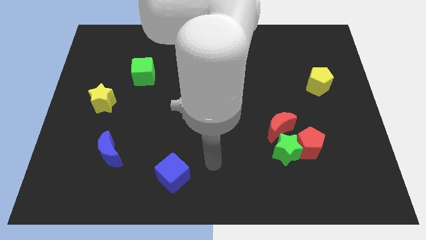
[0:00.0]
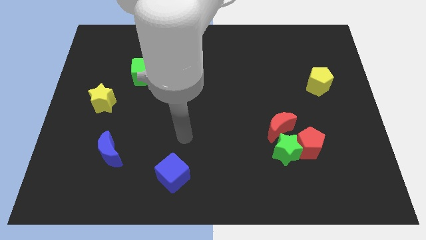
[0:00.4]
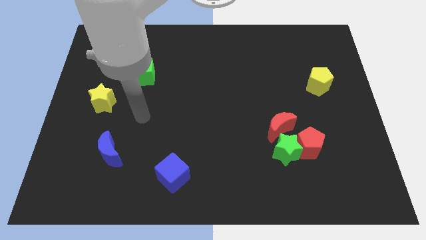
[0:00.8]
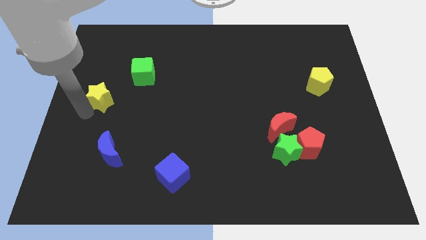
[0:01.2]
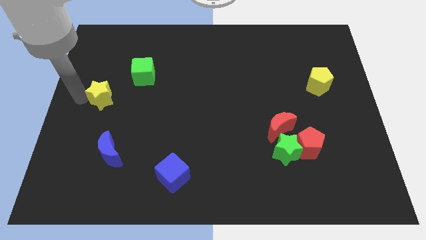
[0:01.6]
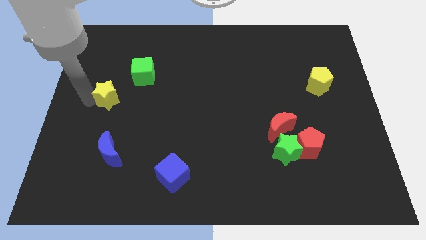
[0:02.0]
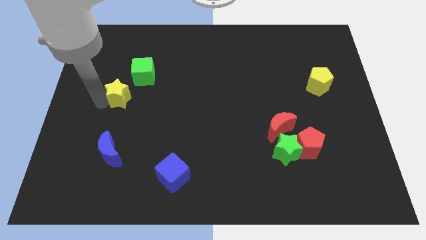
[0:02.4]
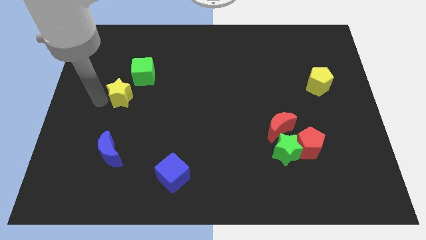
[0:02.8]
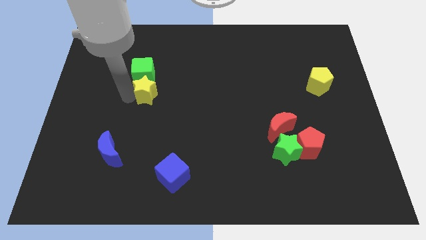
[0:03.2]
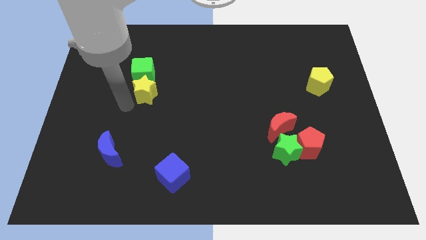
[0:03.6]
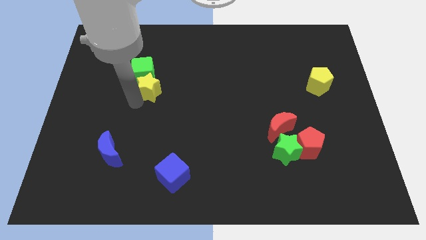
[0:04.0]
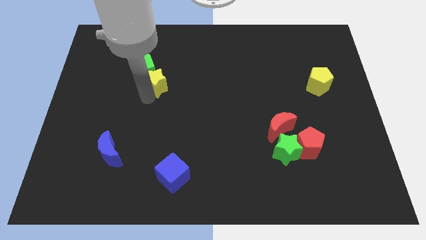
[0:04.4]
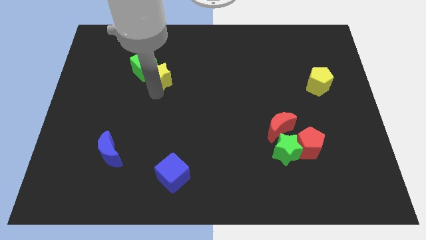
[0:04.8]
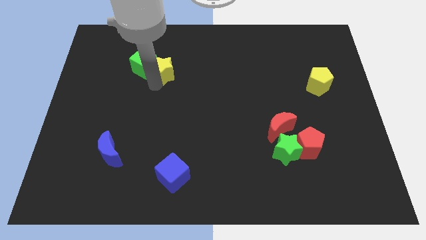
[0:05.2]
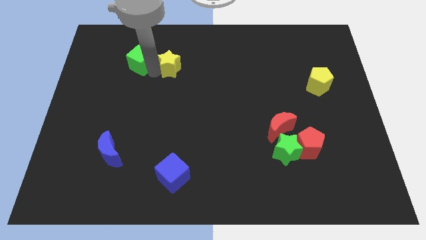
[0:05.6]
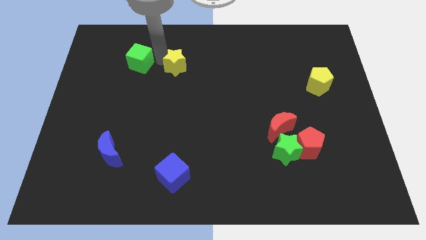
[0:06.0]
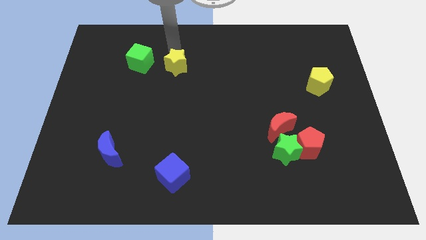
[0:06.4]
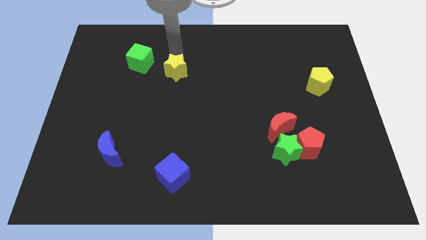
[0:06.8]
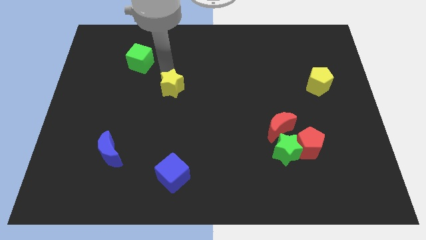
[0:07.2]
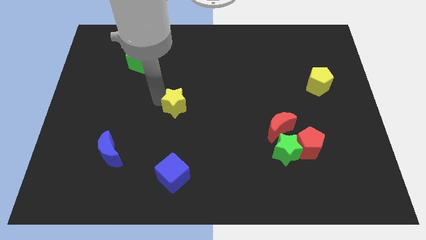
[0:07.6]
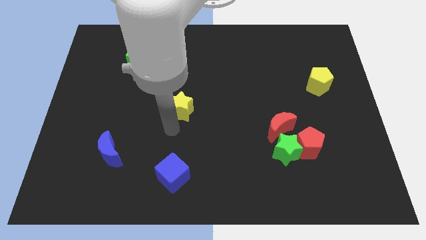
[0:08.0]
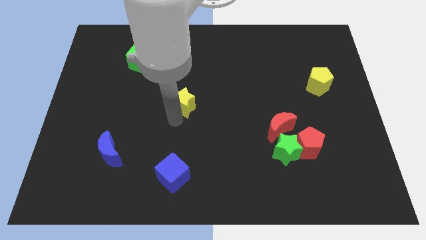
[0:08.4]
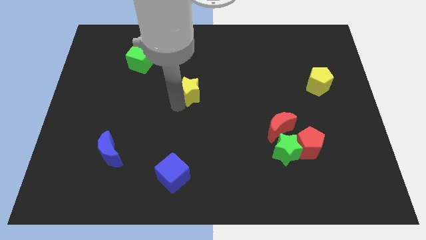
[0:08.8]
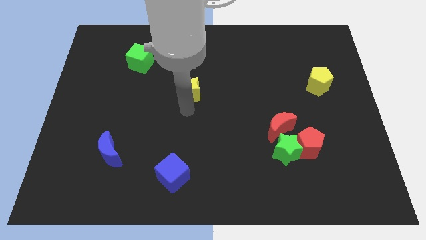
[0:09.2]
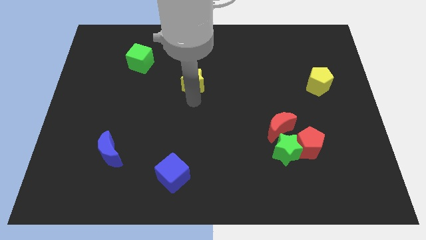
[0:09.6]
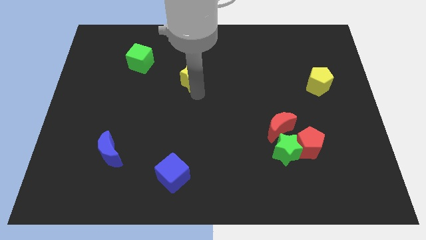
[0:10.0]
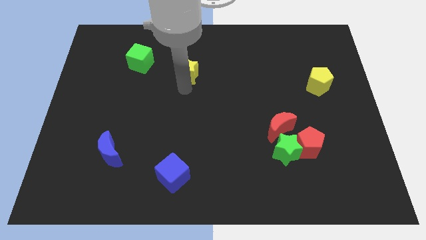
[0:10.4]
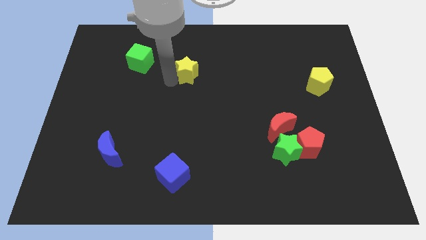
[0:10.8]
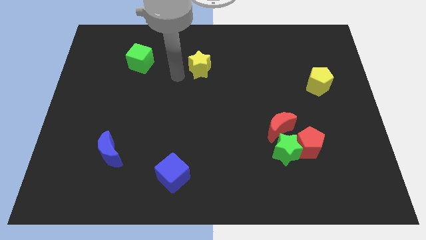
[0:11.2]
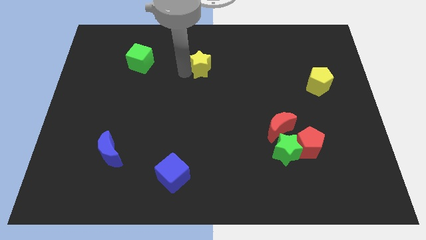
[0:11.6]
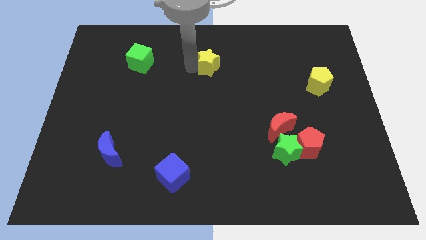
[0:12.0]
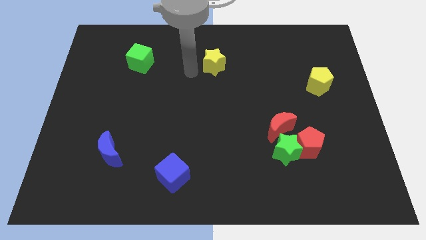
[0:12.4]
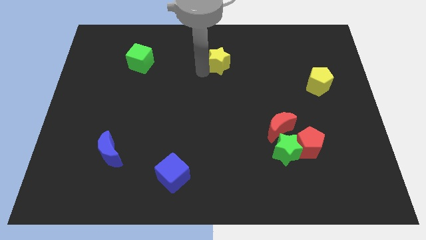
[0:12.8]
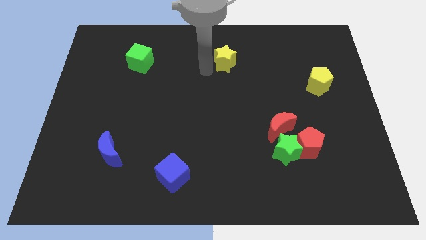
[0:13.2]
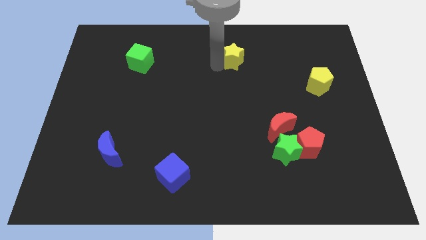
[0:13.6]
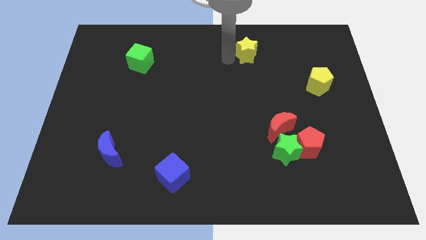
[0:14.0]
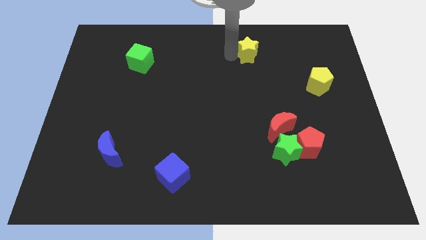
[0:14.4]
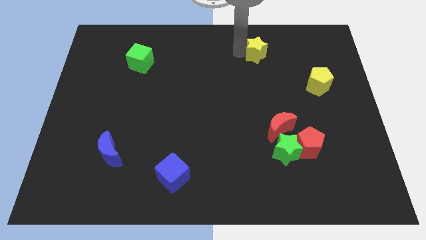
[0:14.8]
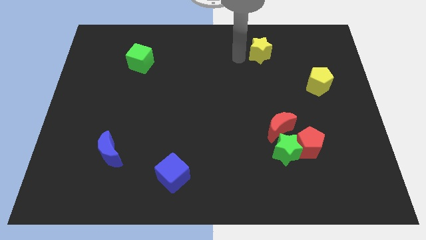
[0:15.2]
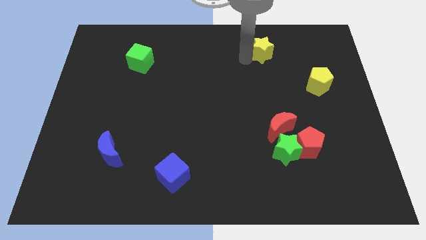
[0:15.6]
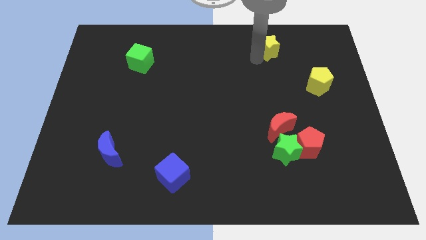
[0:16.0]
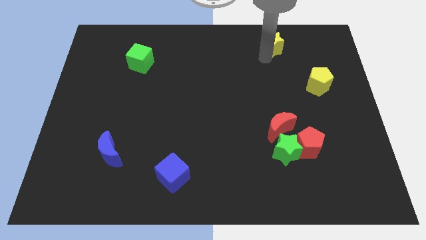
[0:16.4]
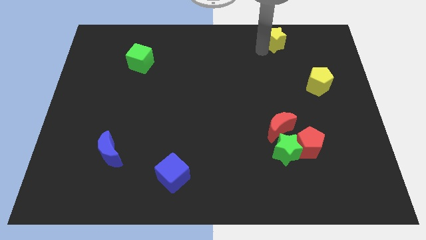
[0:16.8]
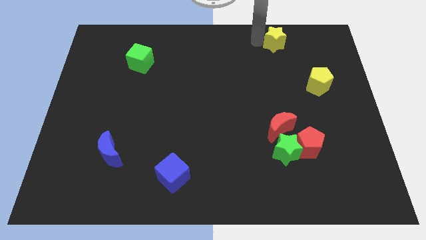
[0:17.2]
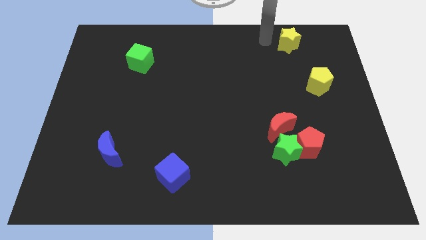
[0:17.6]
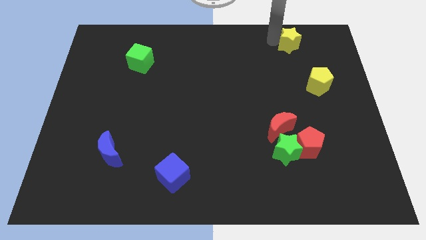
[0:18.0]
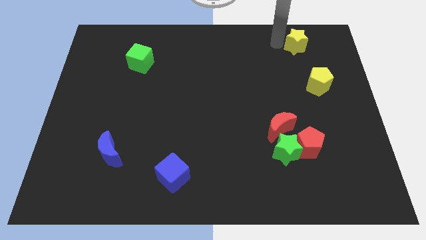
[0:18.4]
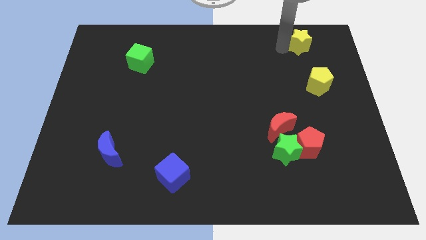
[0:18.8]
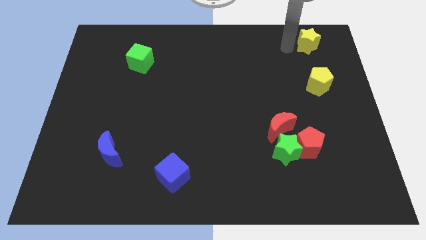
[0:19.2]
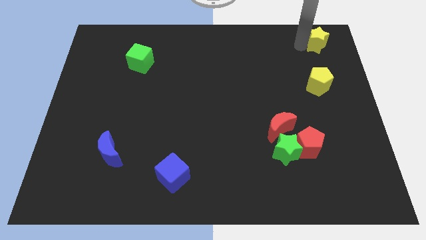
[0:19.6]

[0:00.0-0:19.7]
push the yellow star to the top right

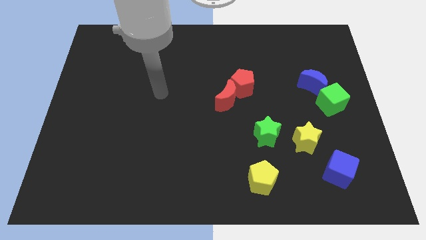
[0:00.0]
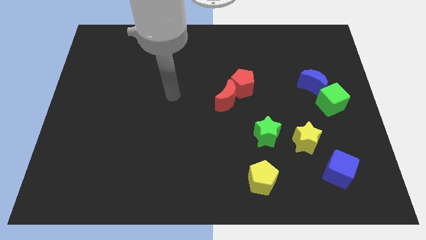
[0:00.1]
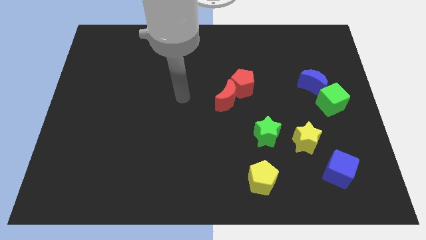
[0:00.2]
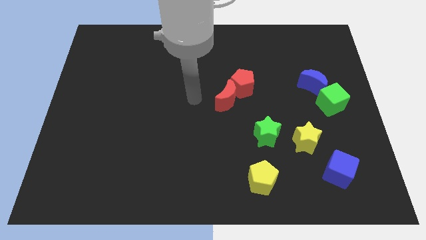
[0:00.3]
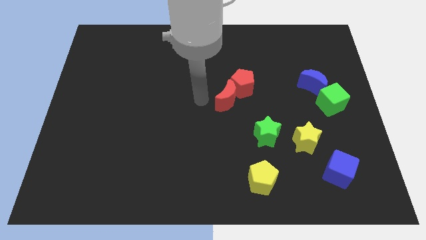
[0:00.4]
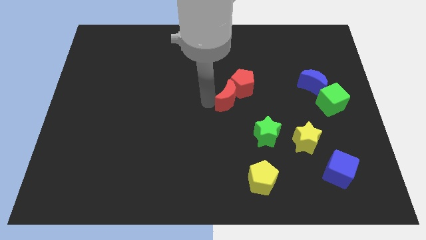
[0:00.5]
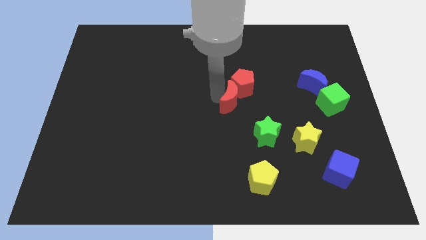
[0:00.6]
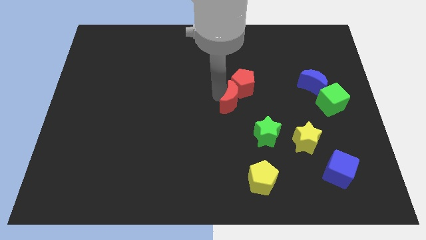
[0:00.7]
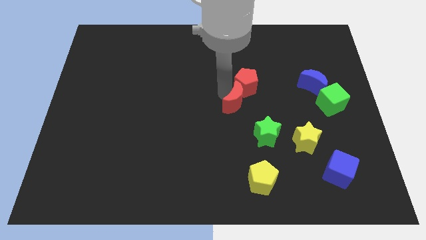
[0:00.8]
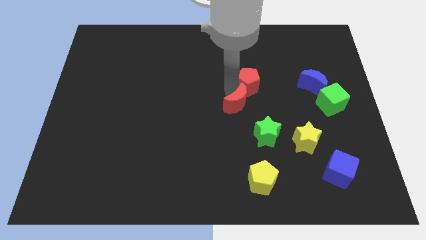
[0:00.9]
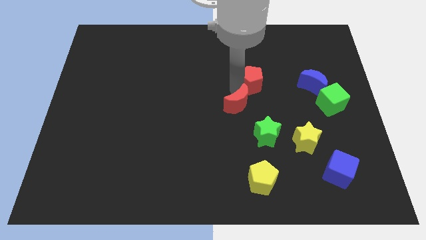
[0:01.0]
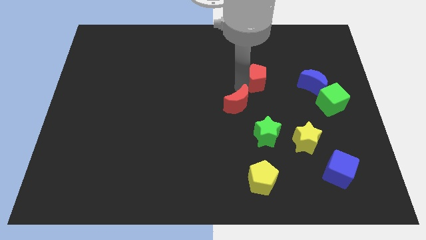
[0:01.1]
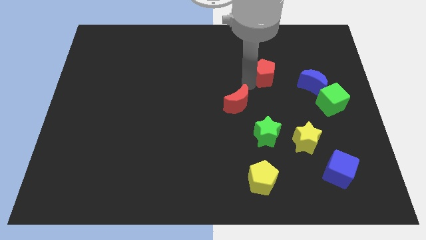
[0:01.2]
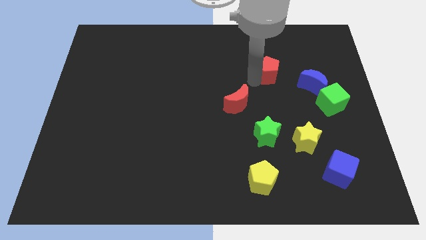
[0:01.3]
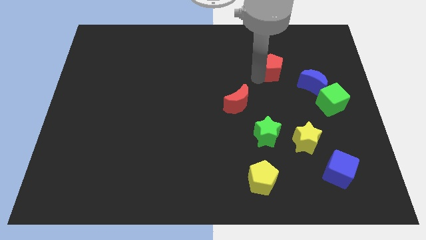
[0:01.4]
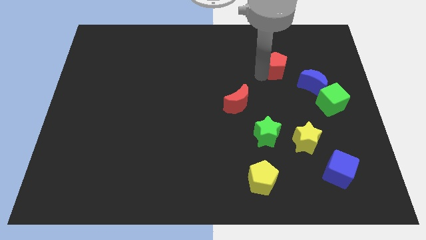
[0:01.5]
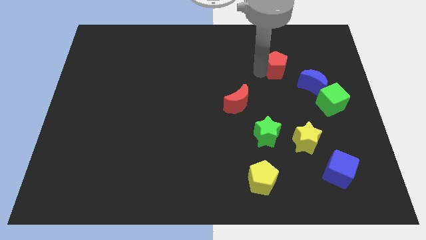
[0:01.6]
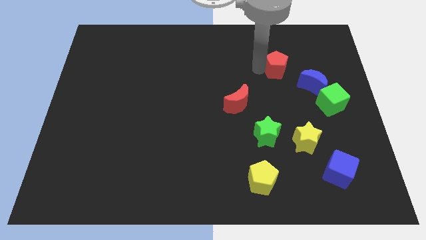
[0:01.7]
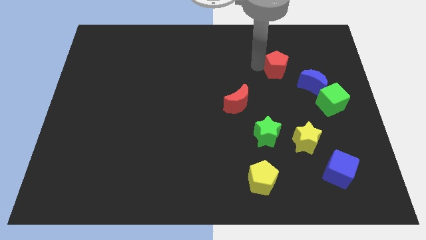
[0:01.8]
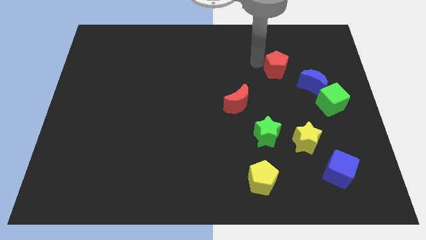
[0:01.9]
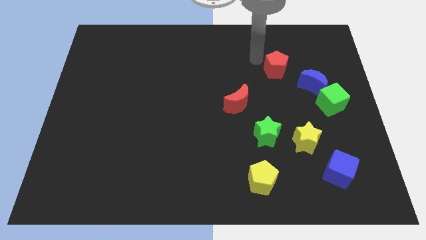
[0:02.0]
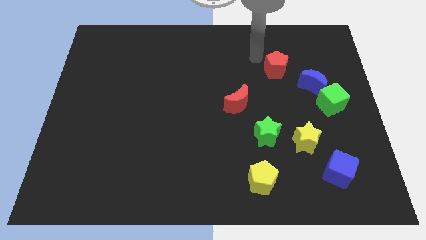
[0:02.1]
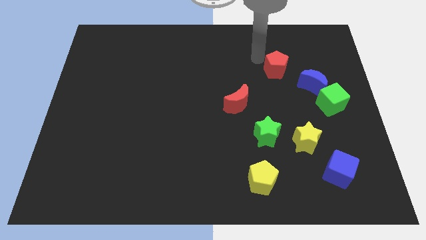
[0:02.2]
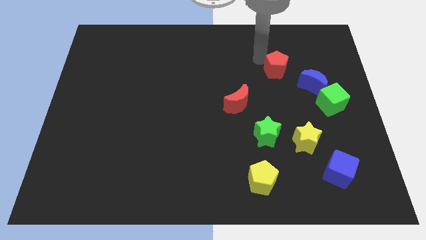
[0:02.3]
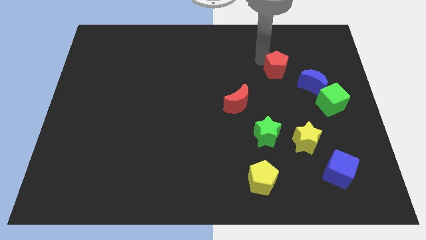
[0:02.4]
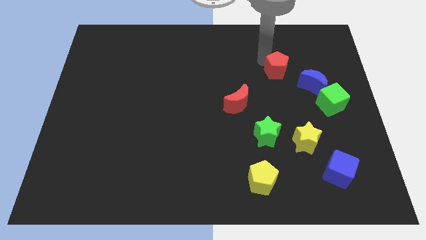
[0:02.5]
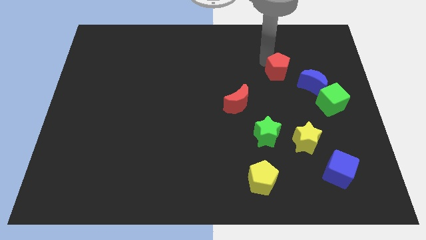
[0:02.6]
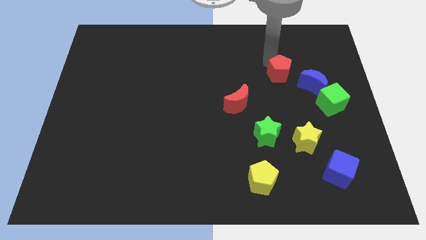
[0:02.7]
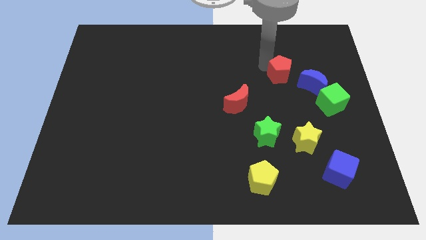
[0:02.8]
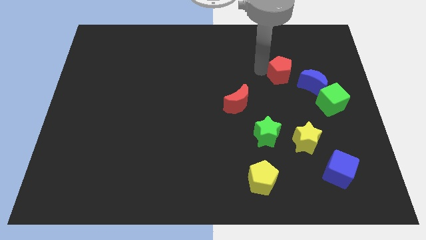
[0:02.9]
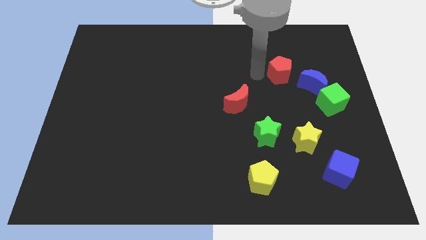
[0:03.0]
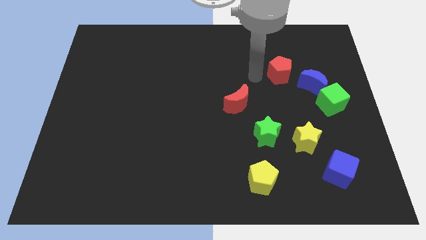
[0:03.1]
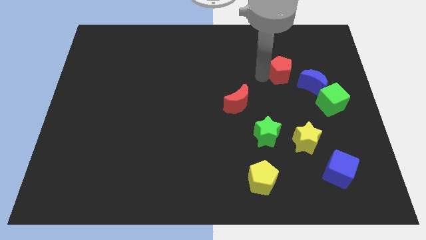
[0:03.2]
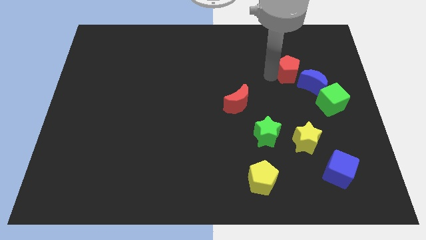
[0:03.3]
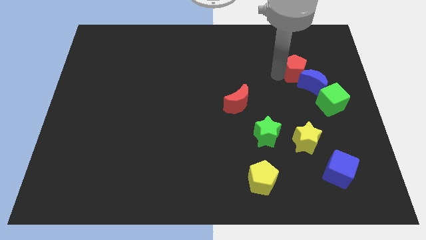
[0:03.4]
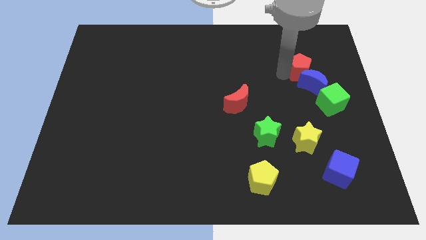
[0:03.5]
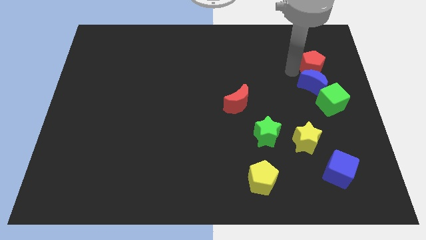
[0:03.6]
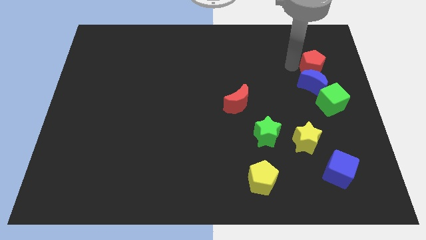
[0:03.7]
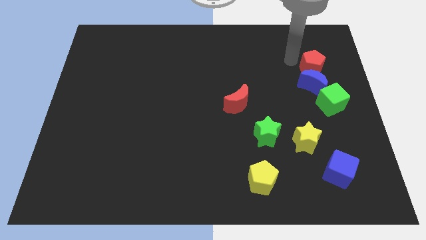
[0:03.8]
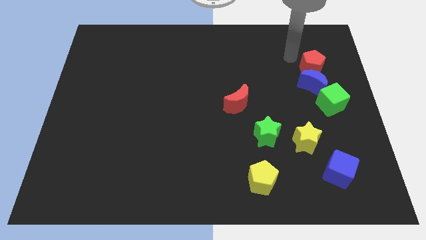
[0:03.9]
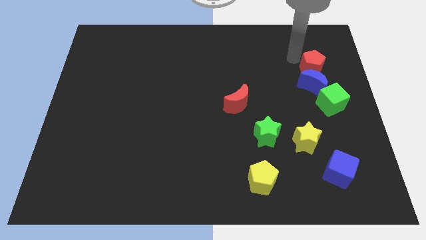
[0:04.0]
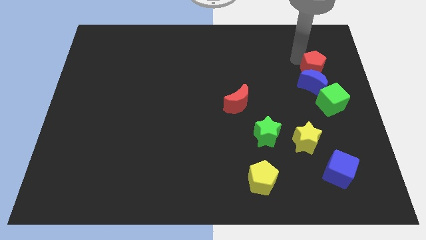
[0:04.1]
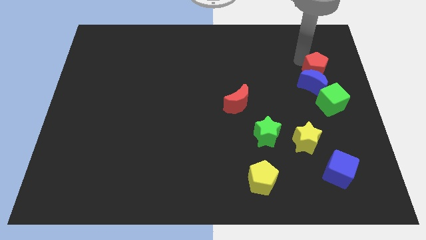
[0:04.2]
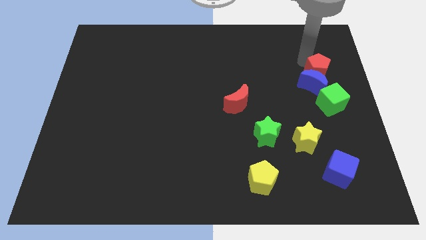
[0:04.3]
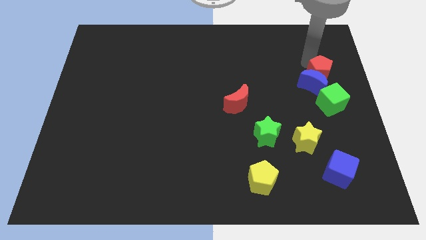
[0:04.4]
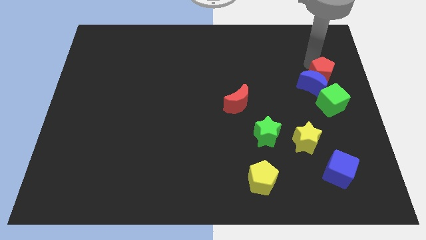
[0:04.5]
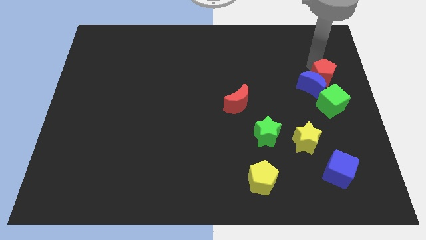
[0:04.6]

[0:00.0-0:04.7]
slide the red pentagon to the right side
